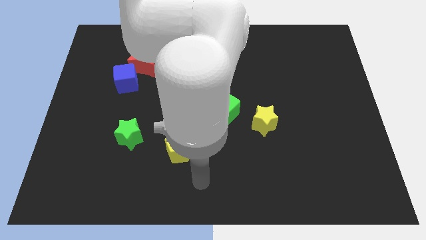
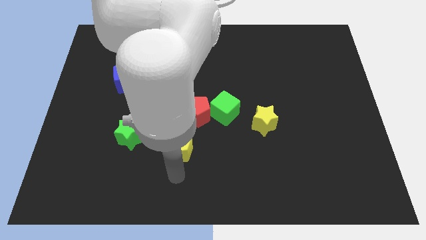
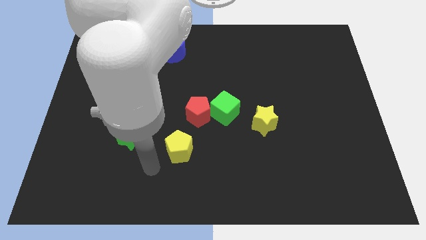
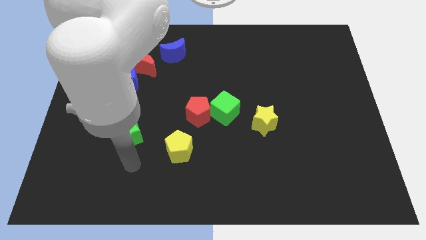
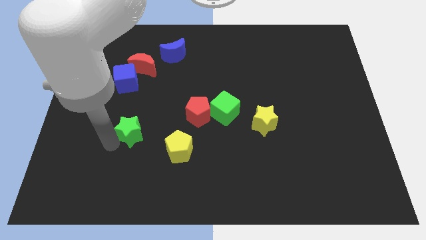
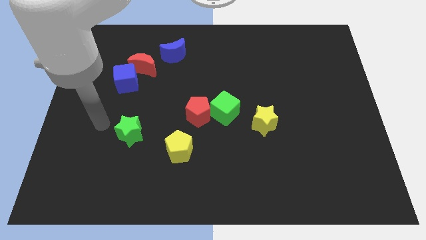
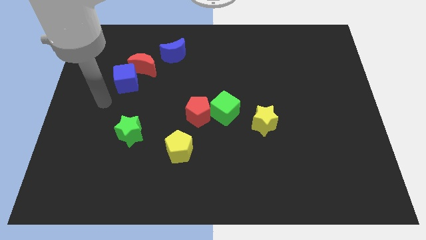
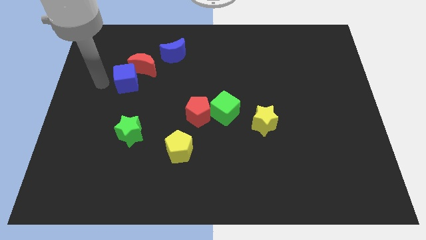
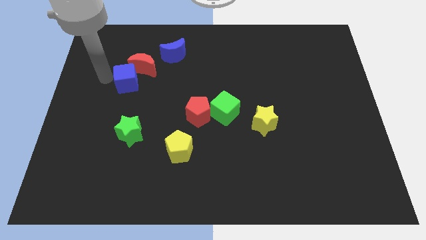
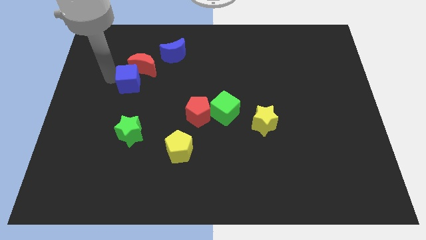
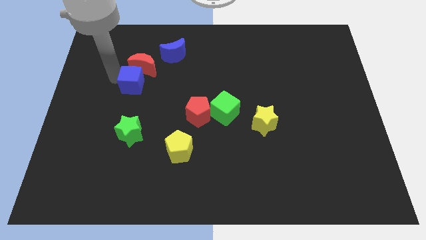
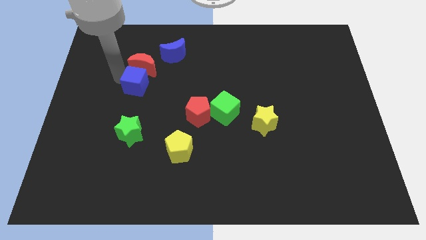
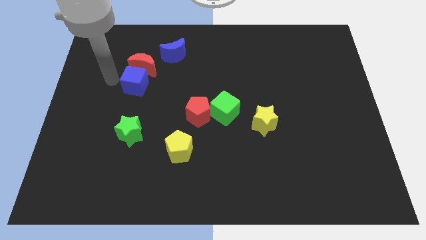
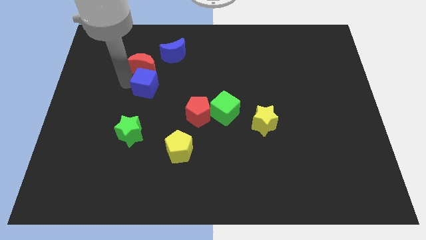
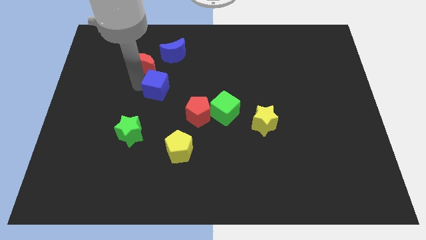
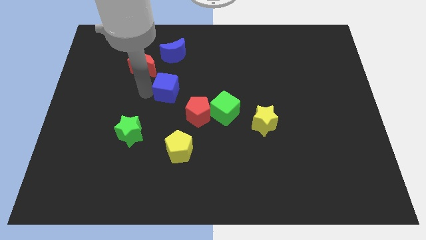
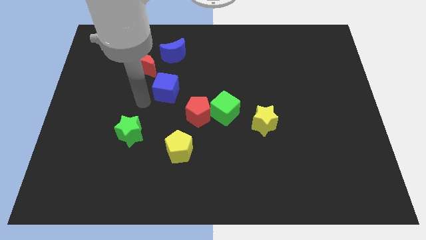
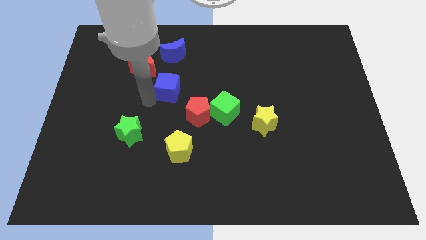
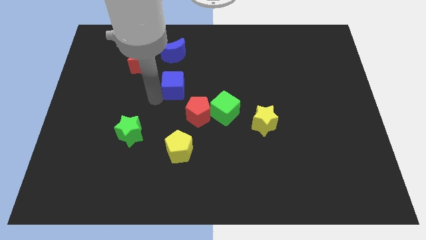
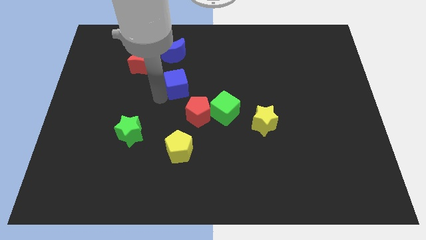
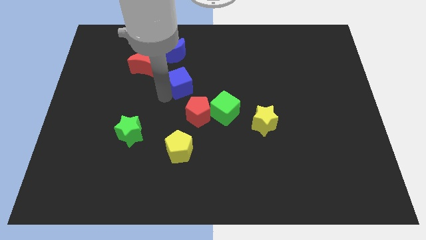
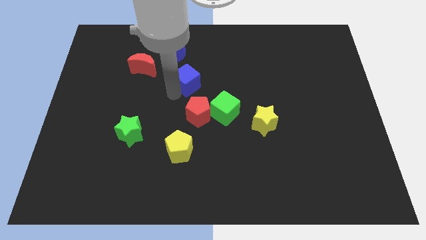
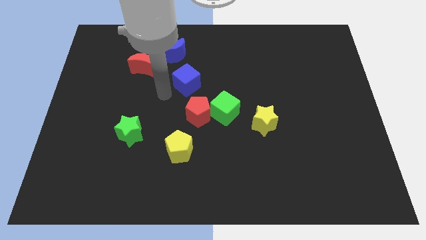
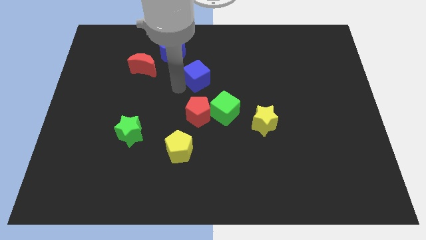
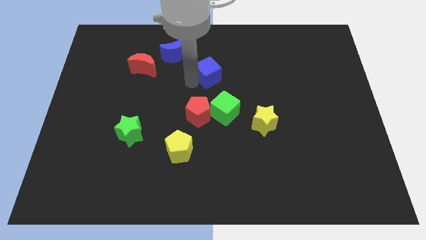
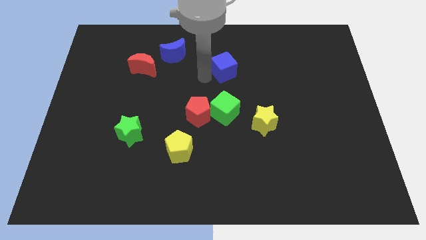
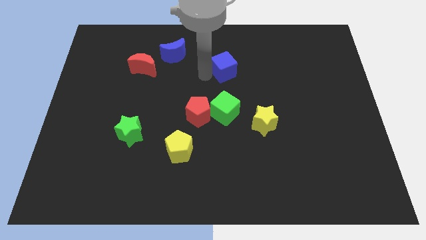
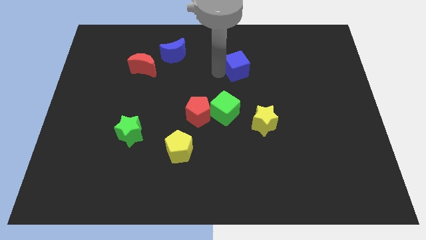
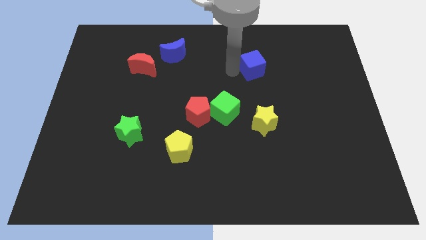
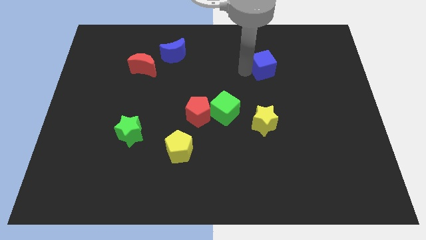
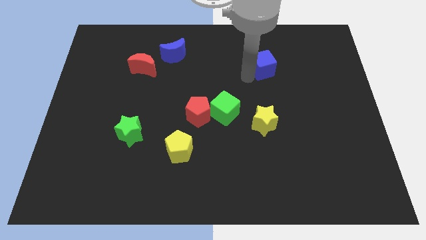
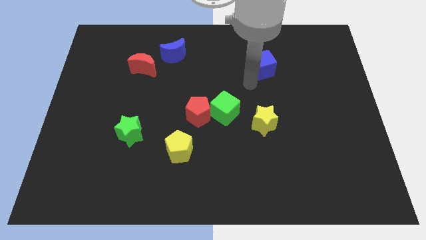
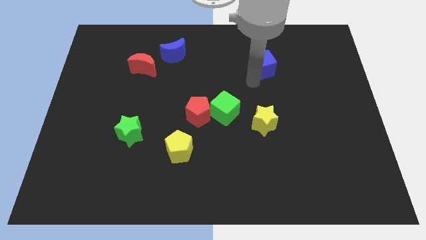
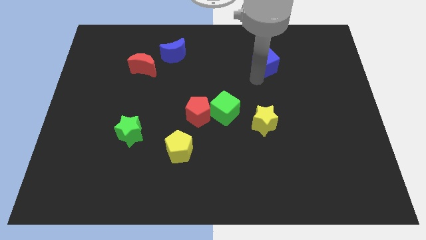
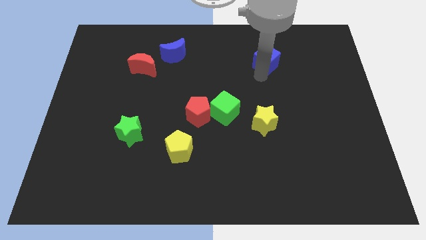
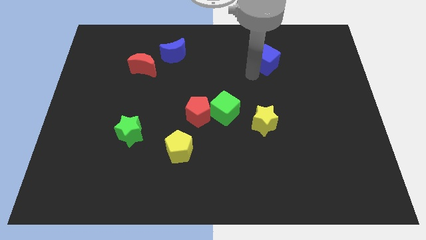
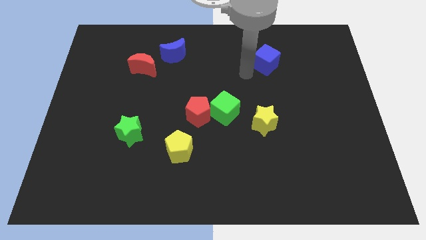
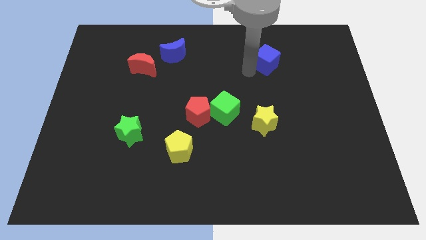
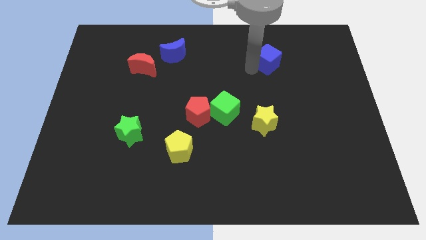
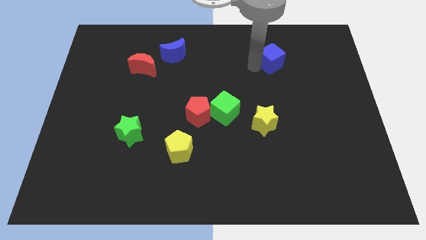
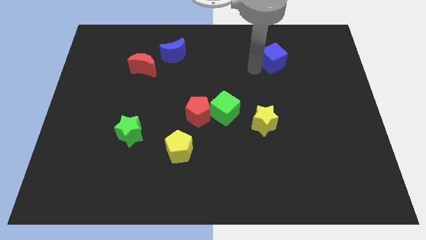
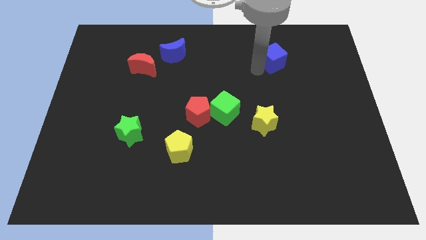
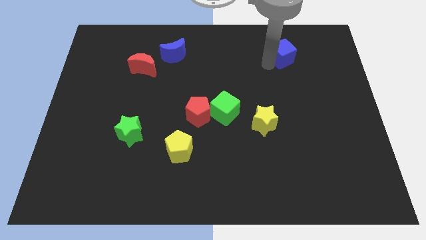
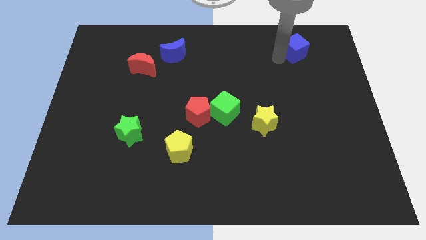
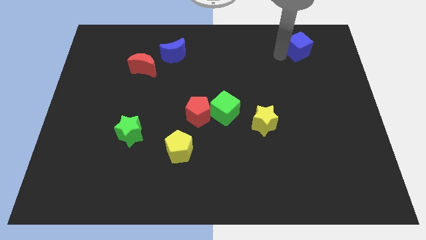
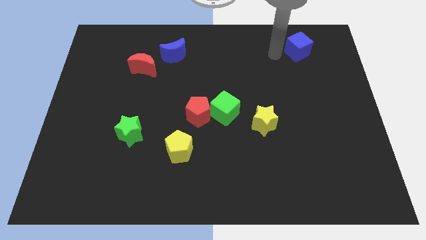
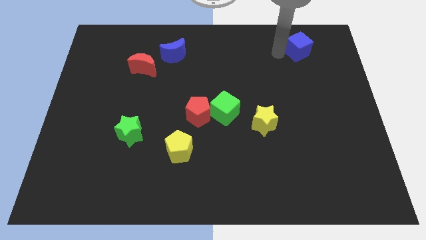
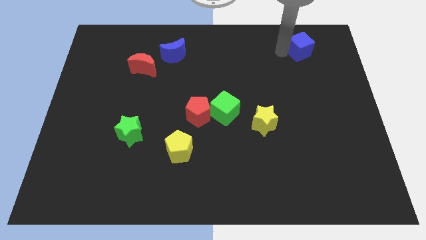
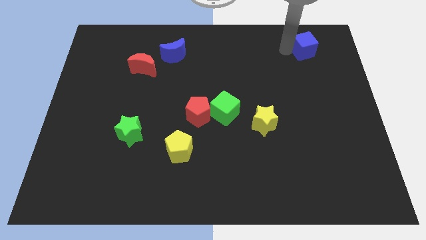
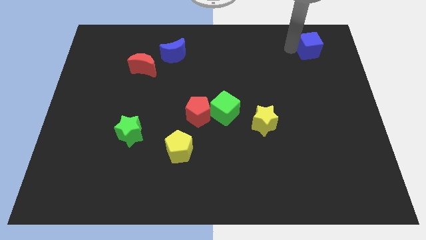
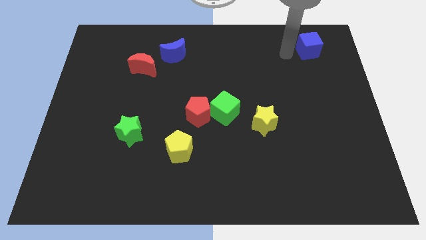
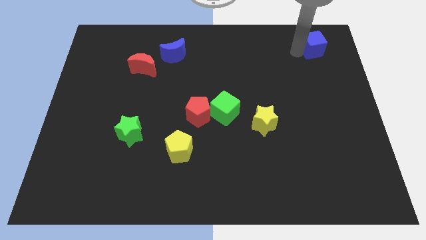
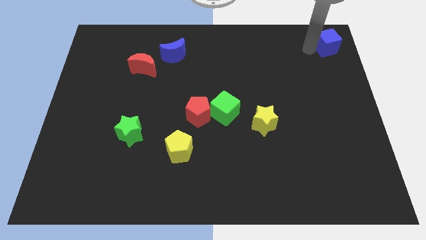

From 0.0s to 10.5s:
move the blue cube to the upper right corner

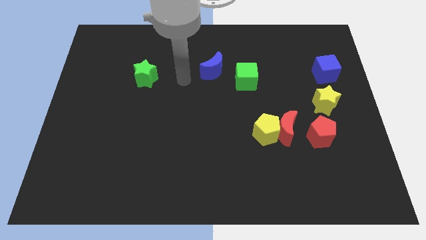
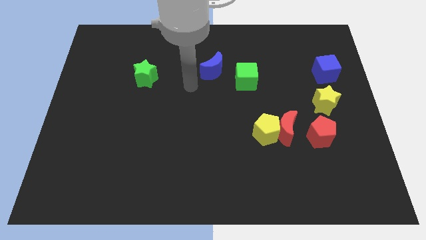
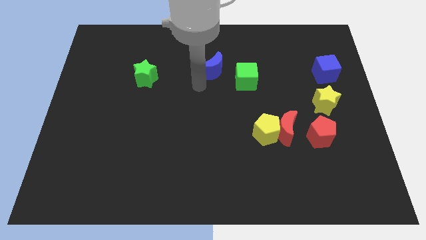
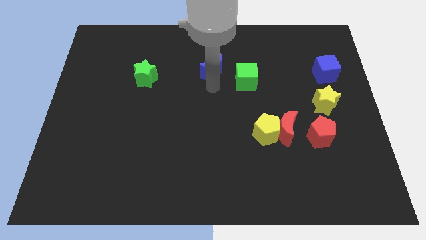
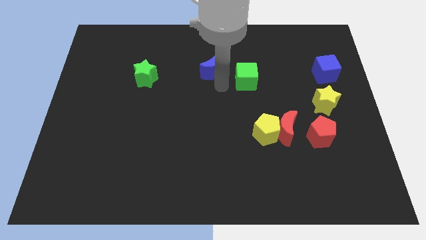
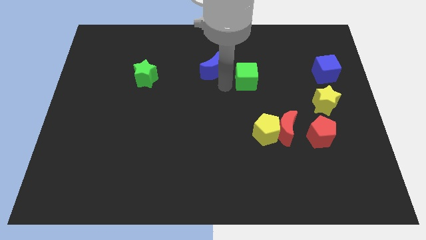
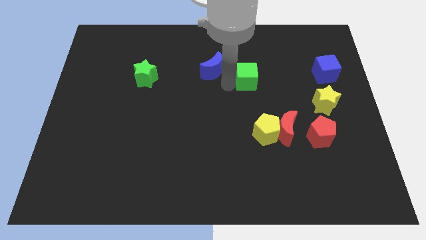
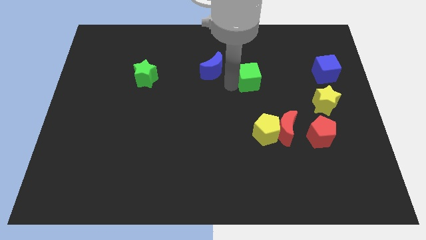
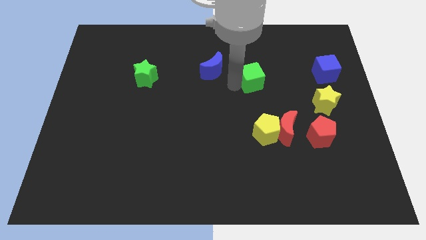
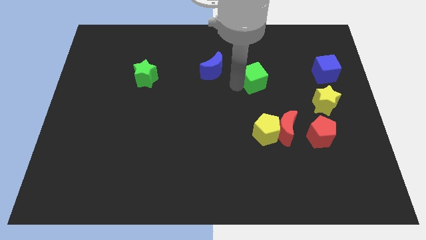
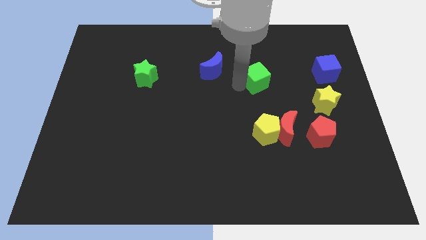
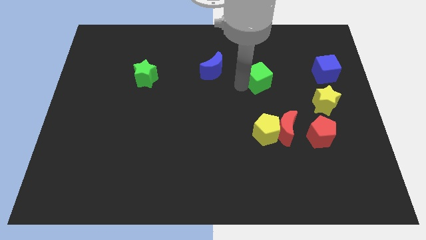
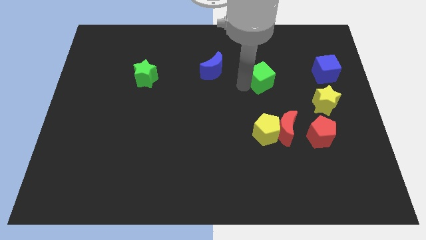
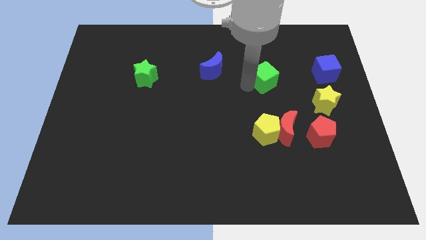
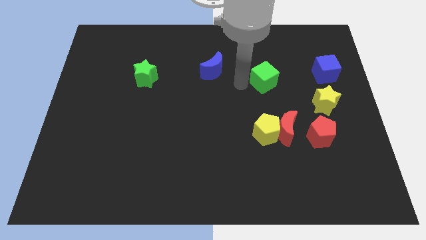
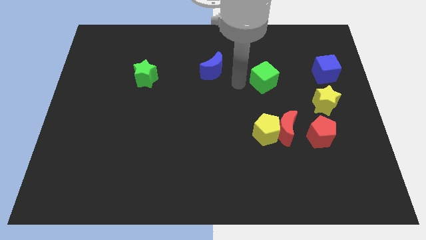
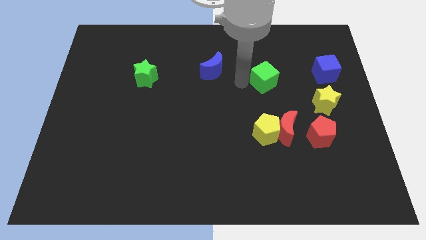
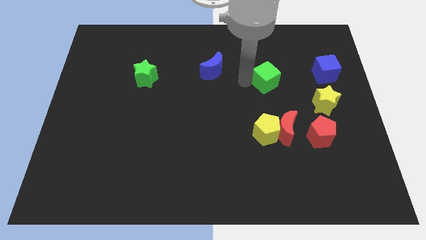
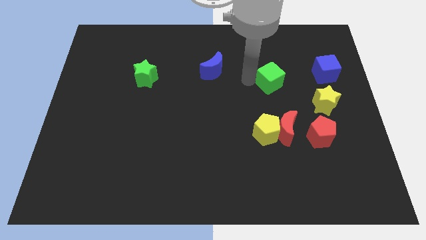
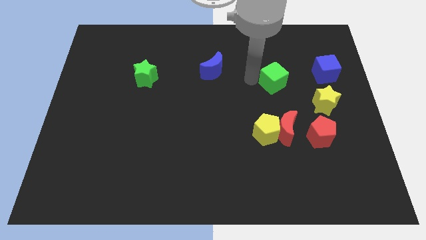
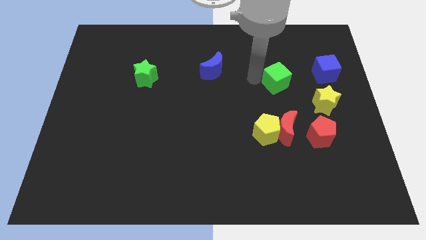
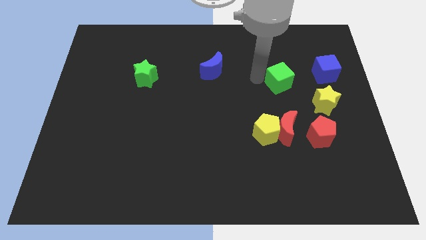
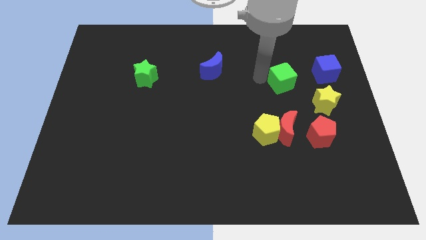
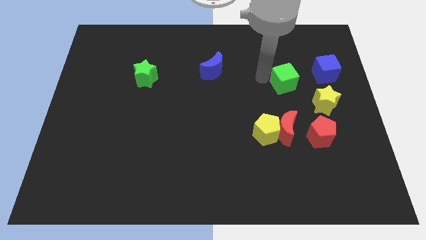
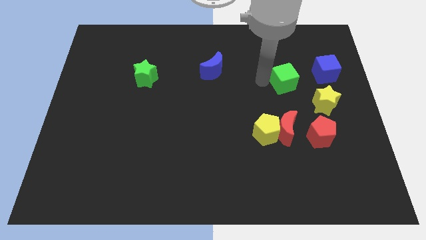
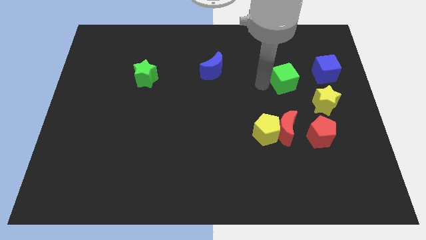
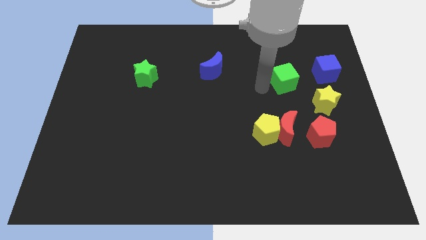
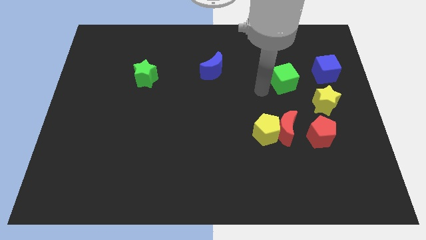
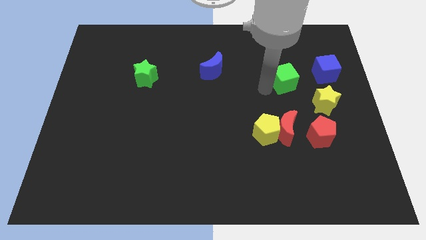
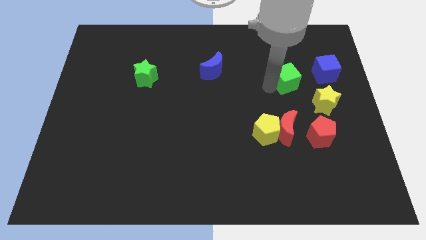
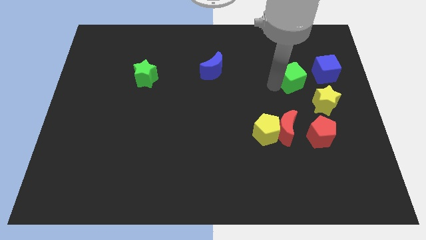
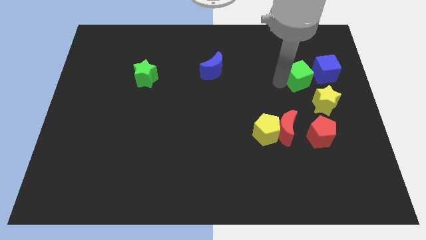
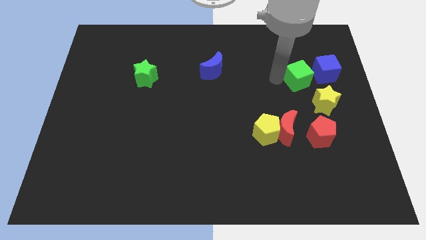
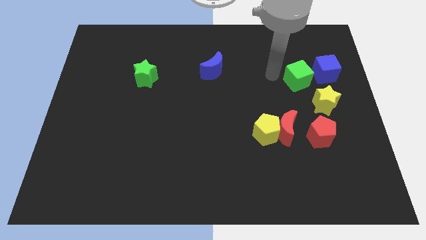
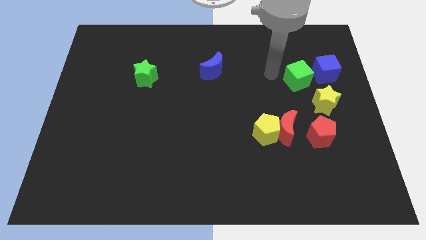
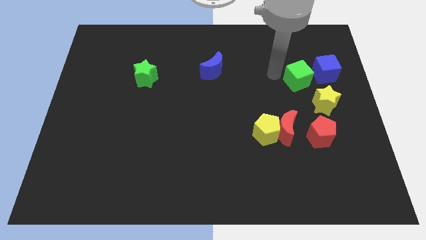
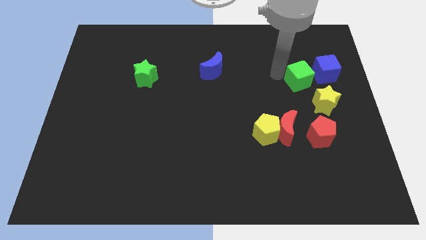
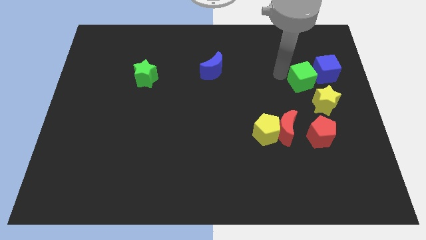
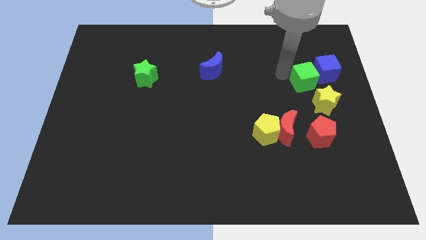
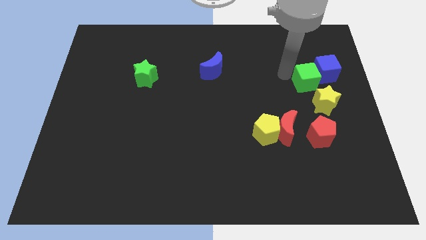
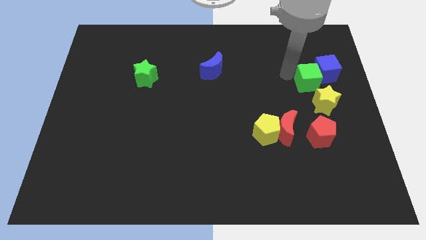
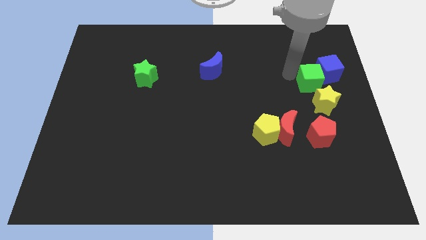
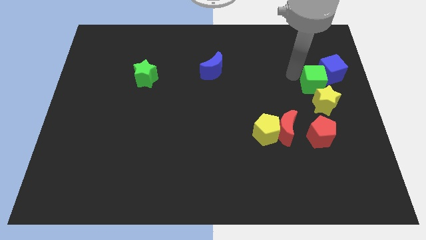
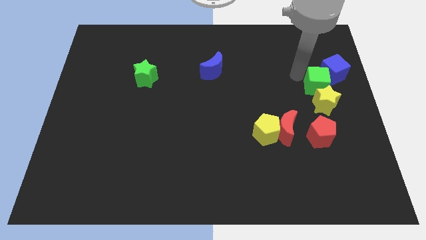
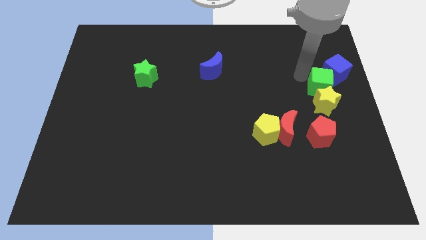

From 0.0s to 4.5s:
push the green cube to the right side
